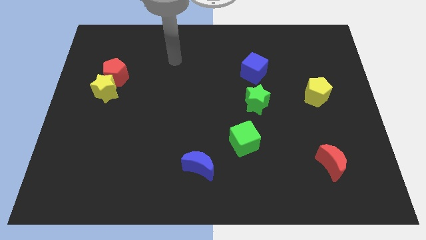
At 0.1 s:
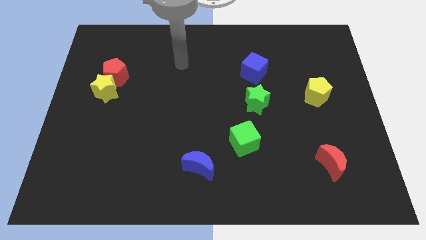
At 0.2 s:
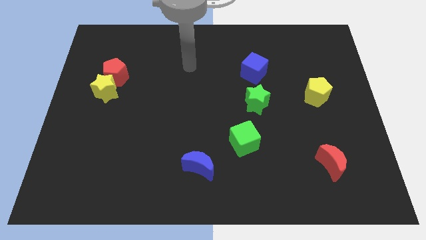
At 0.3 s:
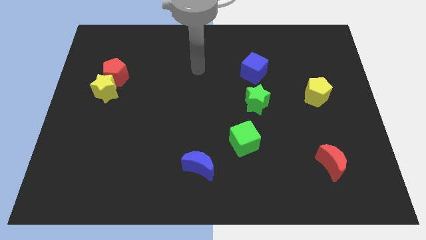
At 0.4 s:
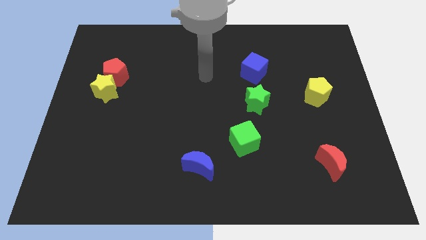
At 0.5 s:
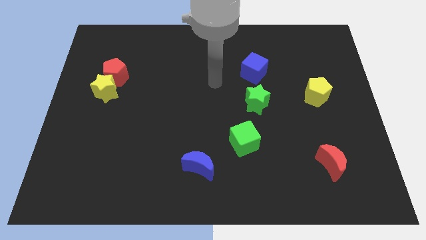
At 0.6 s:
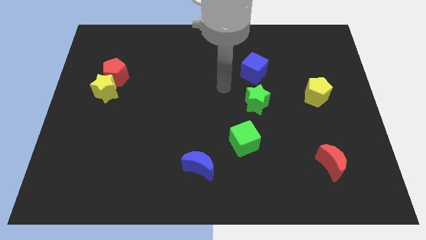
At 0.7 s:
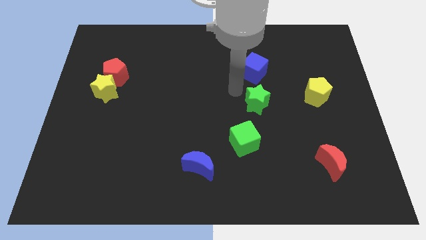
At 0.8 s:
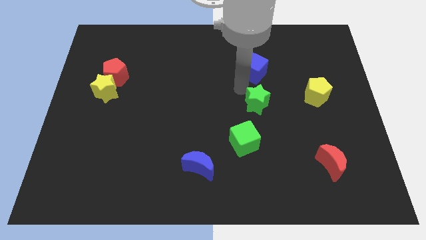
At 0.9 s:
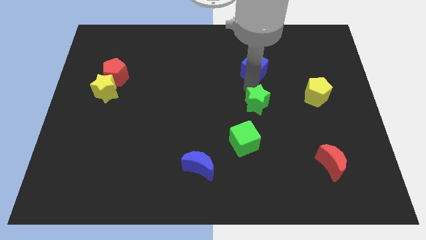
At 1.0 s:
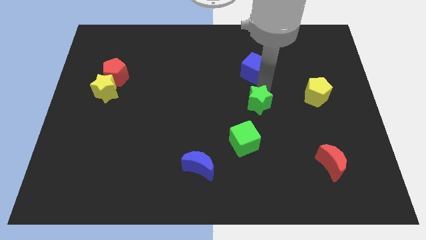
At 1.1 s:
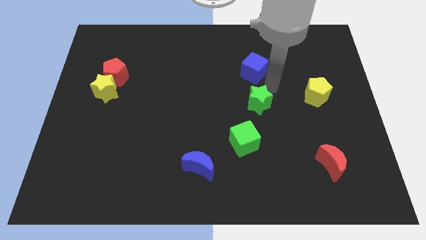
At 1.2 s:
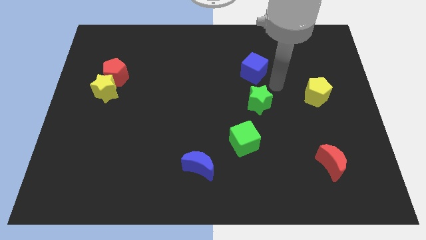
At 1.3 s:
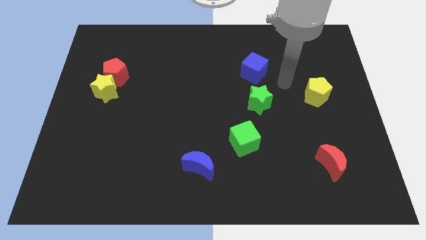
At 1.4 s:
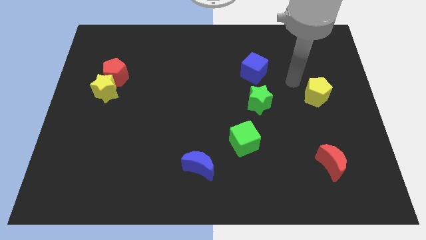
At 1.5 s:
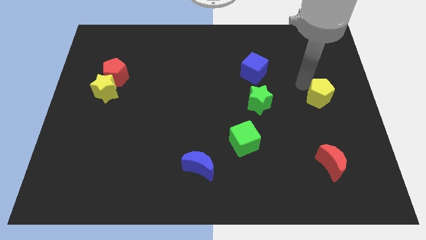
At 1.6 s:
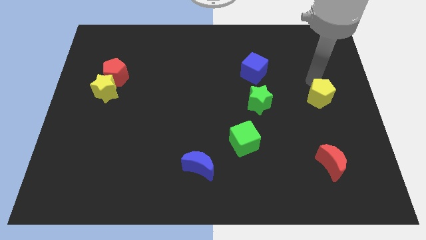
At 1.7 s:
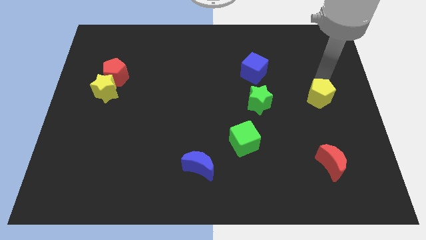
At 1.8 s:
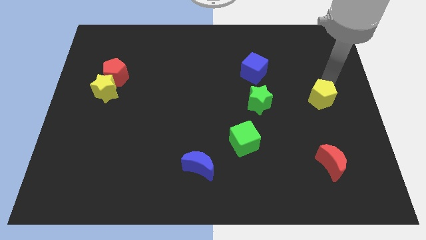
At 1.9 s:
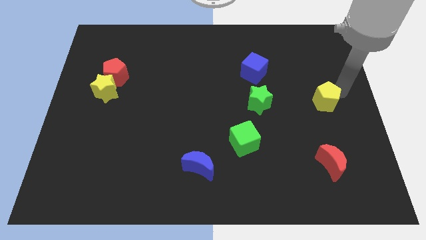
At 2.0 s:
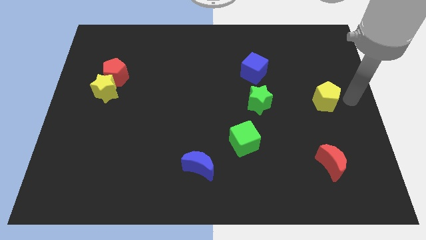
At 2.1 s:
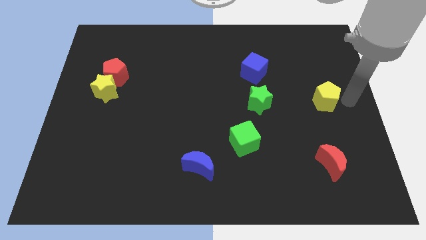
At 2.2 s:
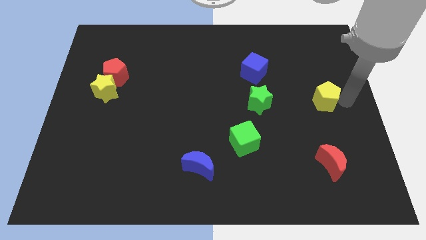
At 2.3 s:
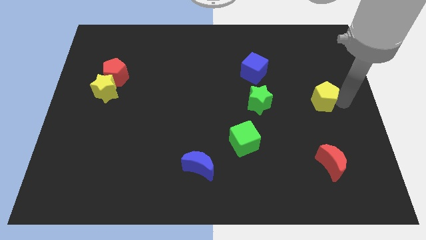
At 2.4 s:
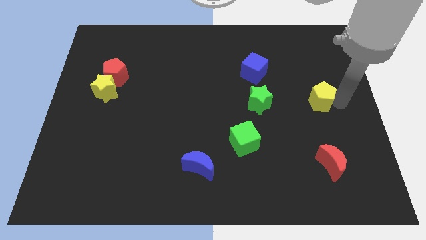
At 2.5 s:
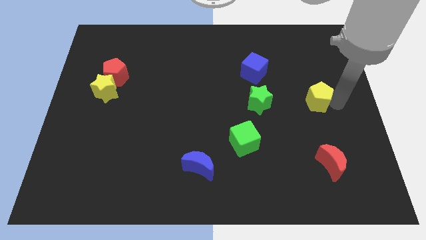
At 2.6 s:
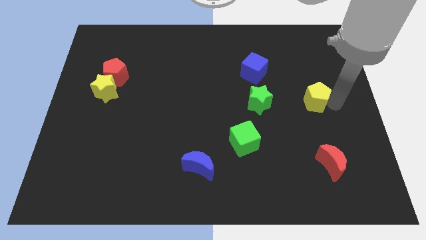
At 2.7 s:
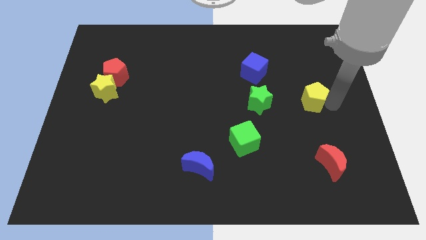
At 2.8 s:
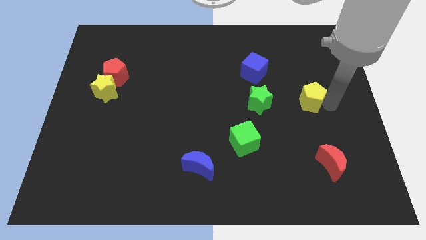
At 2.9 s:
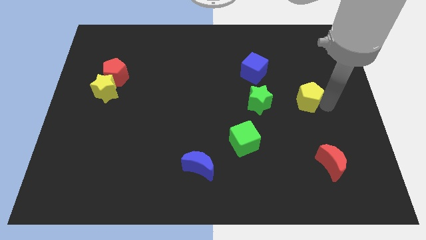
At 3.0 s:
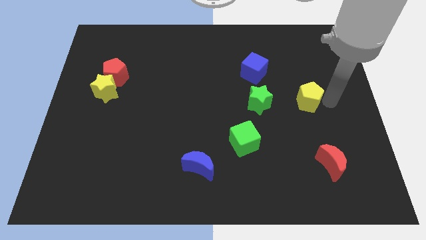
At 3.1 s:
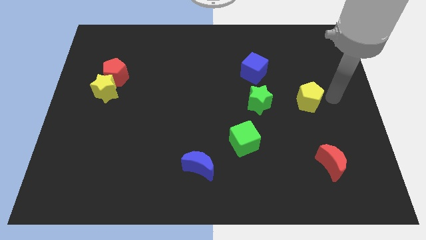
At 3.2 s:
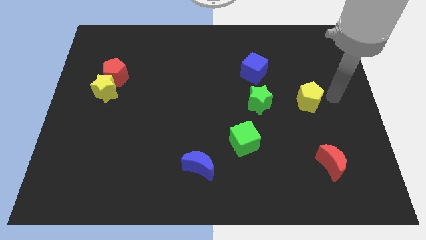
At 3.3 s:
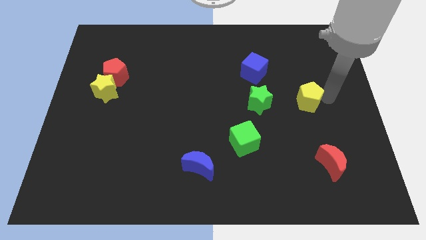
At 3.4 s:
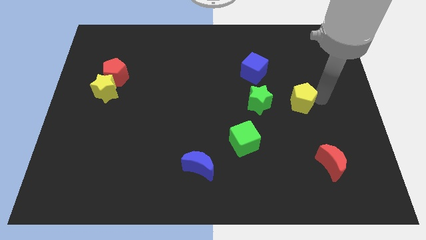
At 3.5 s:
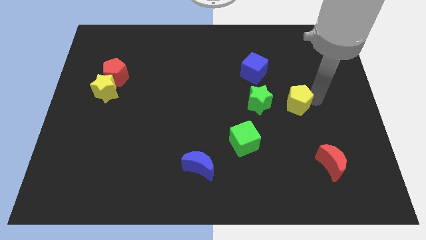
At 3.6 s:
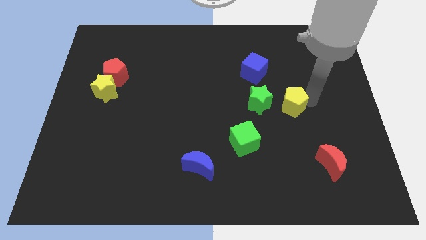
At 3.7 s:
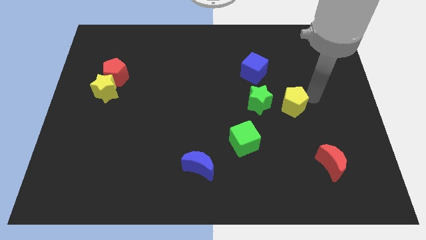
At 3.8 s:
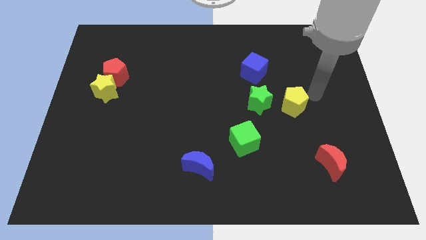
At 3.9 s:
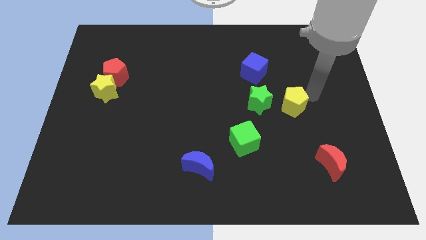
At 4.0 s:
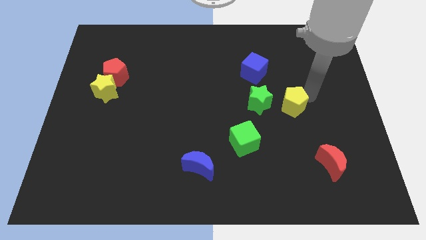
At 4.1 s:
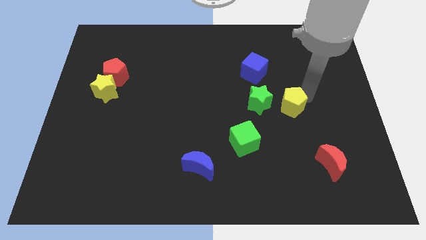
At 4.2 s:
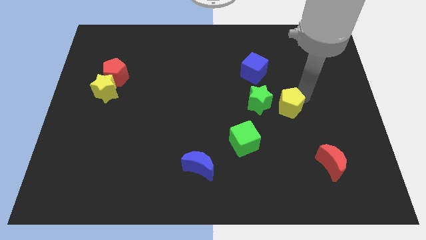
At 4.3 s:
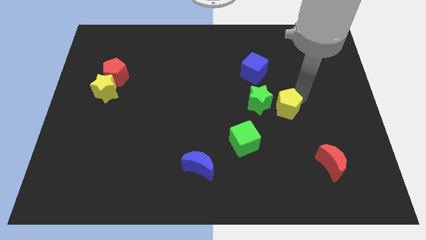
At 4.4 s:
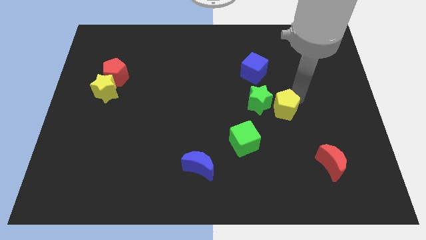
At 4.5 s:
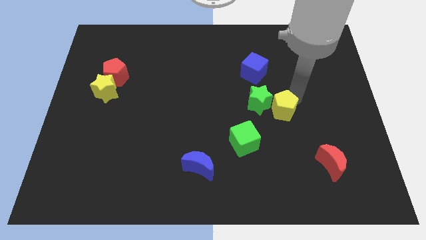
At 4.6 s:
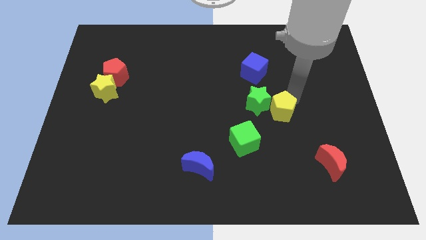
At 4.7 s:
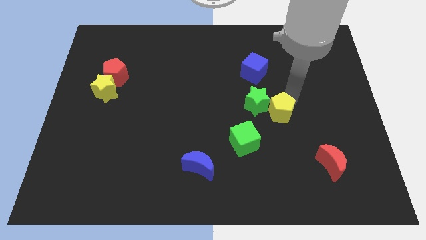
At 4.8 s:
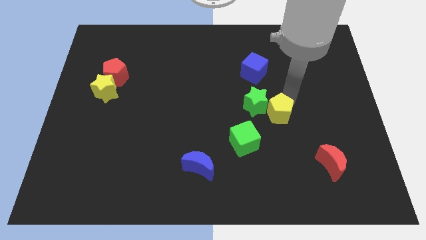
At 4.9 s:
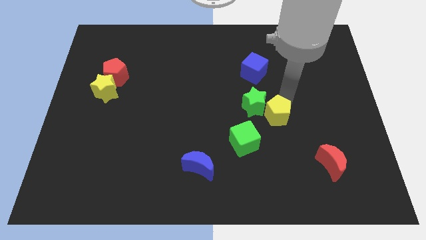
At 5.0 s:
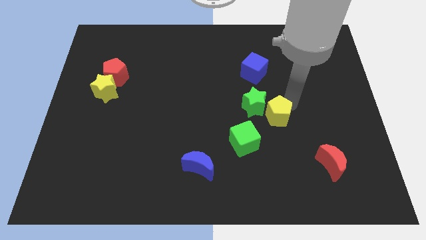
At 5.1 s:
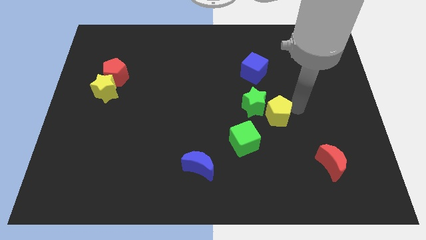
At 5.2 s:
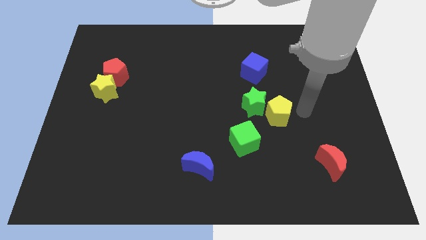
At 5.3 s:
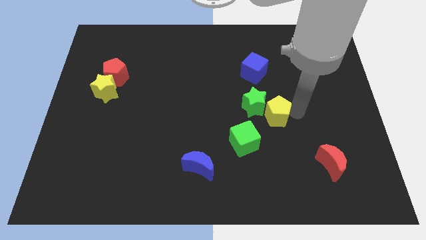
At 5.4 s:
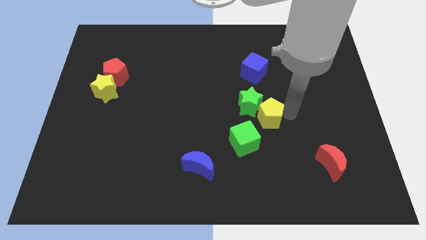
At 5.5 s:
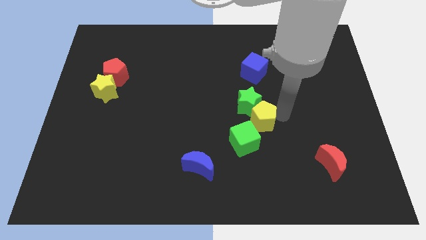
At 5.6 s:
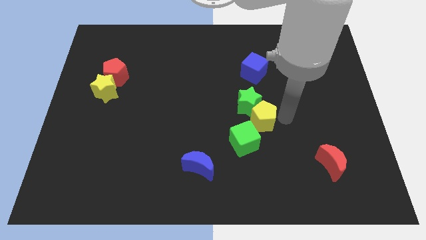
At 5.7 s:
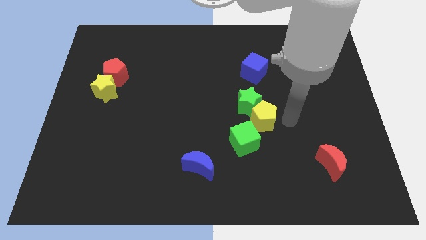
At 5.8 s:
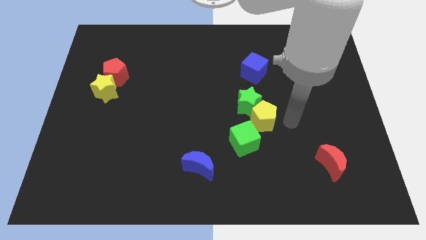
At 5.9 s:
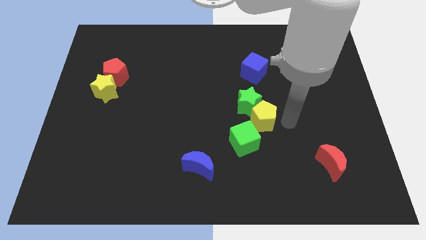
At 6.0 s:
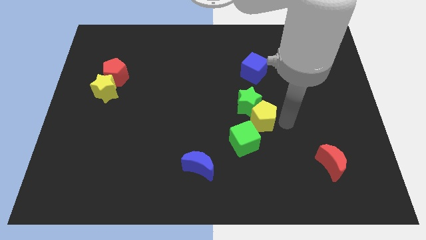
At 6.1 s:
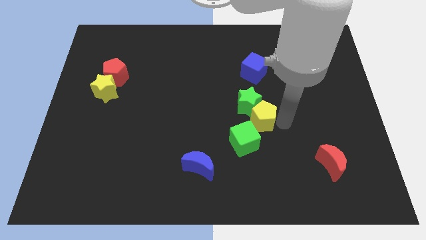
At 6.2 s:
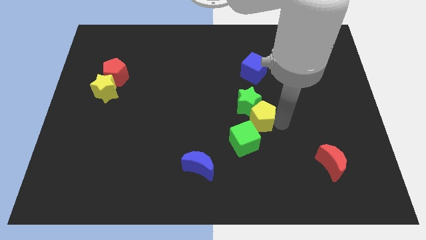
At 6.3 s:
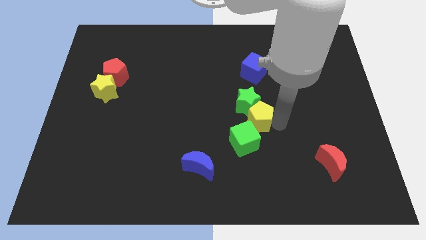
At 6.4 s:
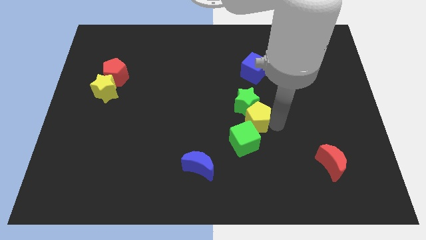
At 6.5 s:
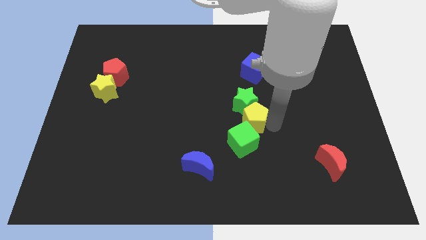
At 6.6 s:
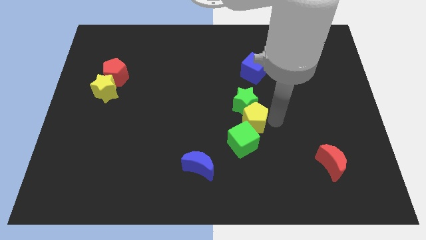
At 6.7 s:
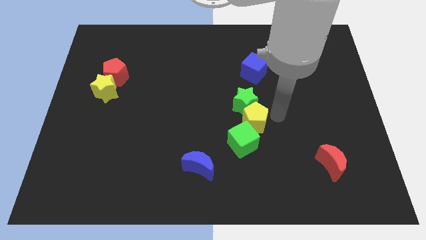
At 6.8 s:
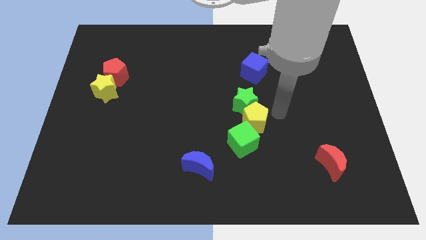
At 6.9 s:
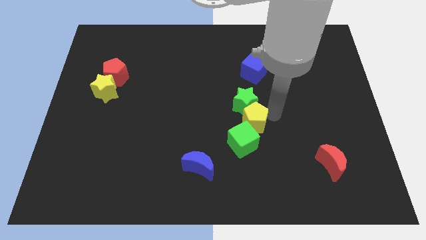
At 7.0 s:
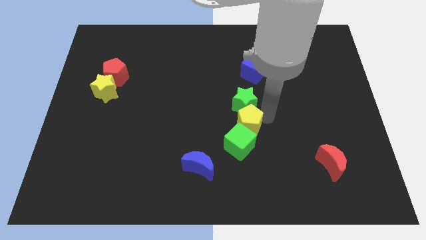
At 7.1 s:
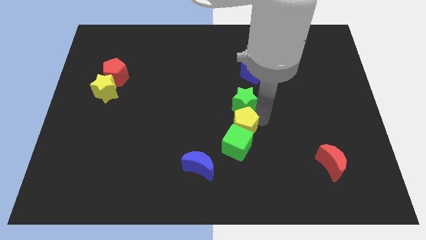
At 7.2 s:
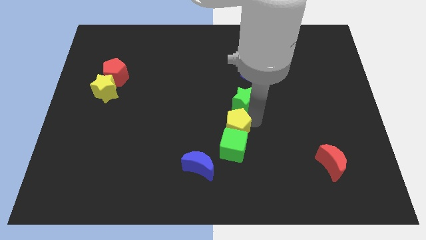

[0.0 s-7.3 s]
push the yellow pentagon to the top right side of the blue moon
